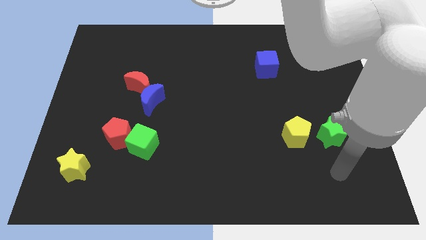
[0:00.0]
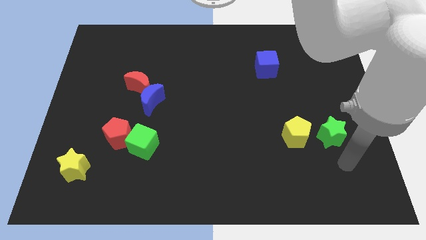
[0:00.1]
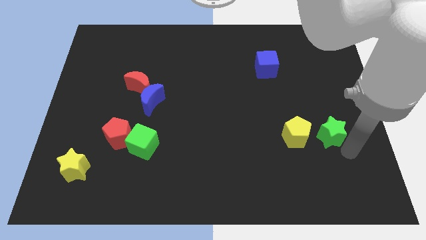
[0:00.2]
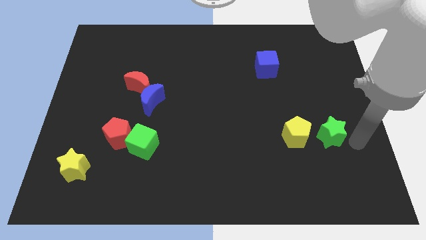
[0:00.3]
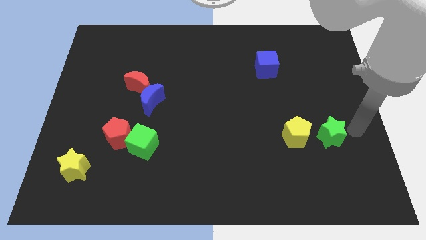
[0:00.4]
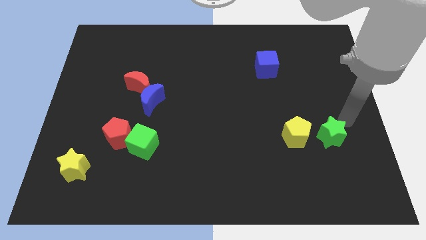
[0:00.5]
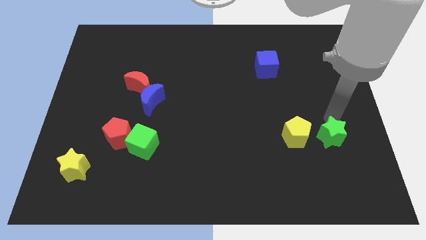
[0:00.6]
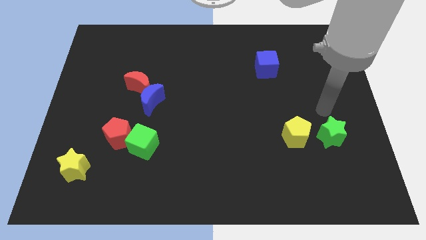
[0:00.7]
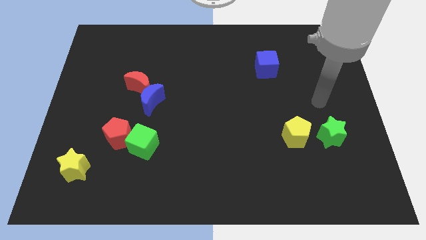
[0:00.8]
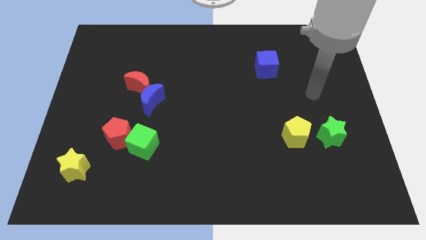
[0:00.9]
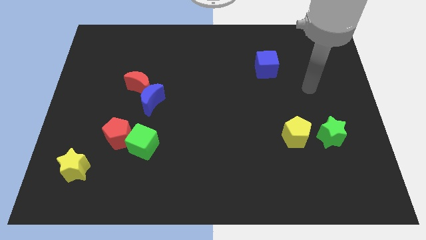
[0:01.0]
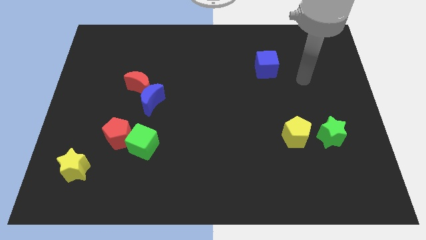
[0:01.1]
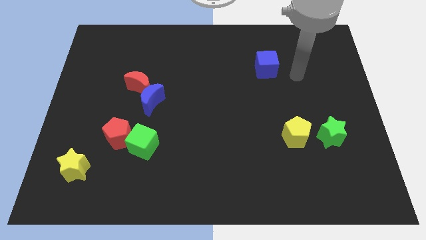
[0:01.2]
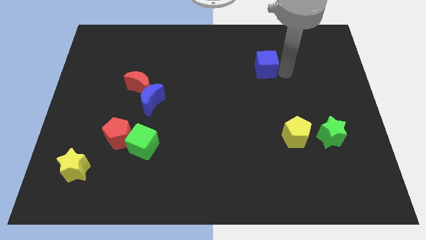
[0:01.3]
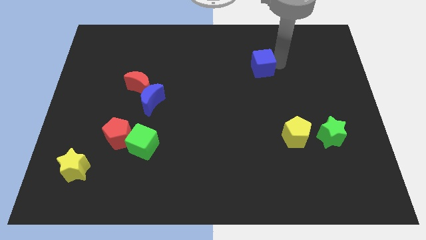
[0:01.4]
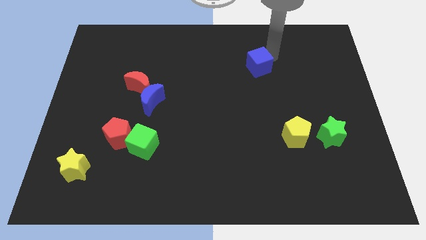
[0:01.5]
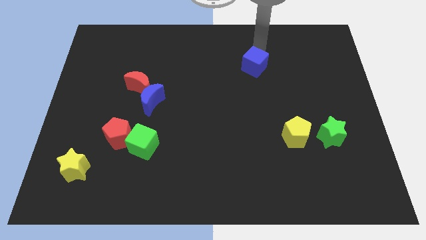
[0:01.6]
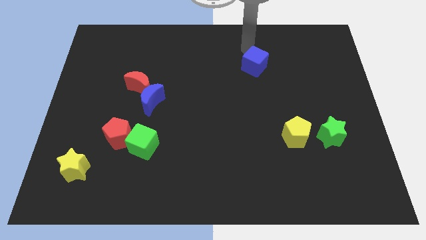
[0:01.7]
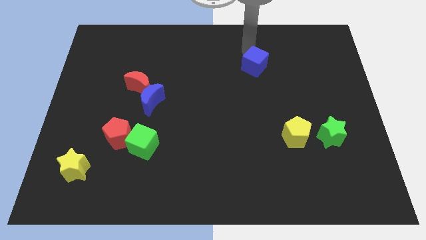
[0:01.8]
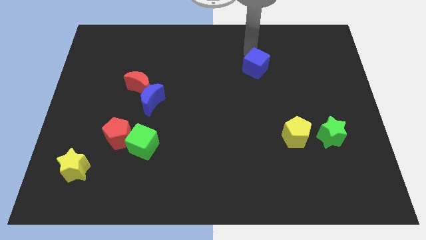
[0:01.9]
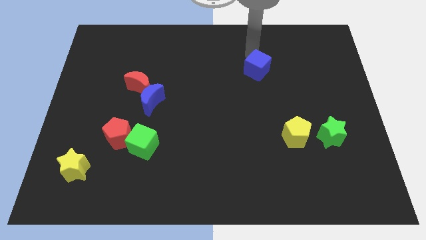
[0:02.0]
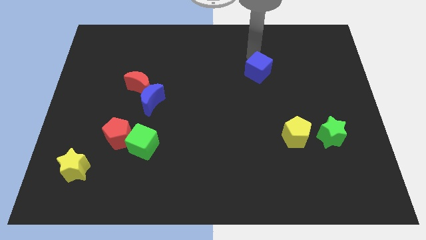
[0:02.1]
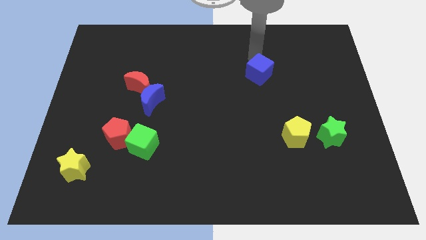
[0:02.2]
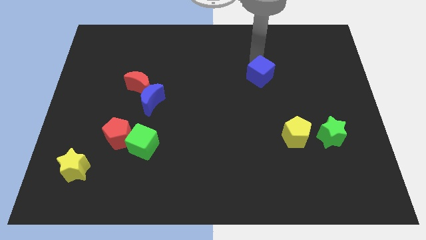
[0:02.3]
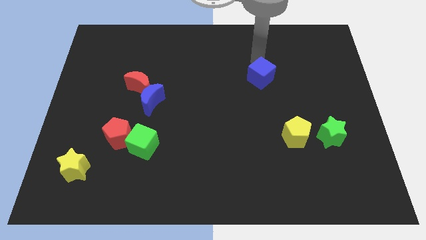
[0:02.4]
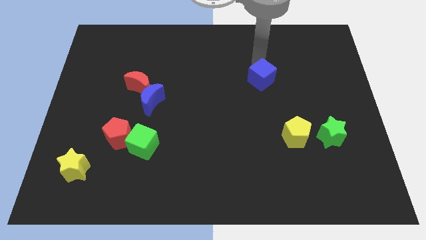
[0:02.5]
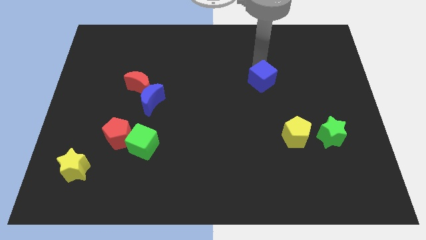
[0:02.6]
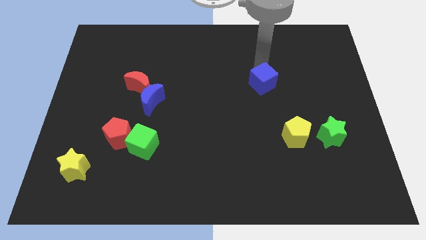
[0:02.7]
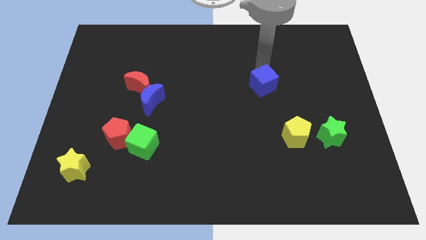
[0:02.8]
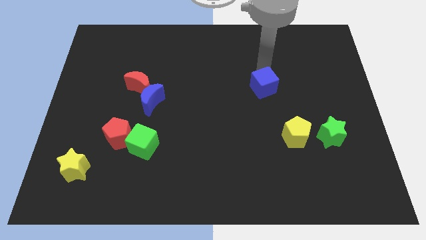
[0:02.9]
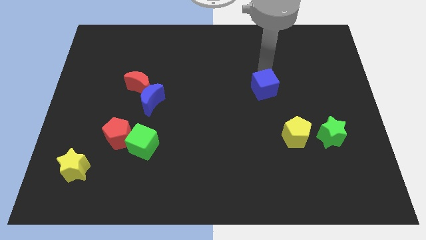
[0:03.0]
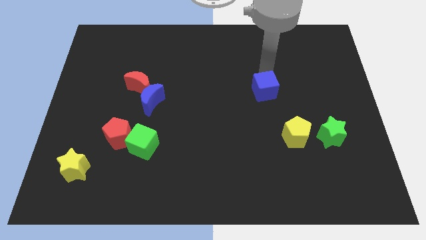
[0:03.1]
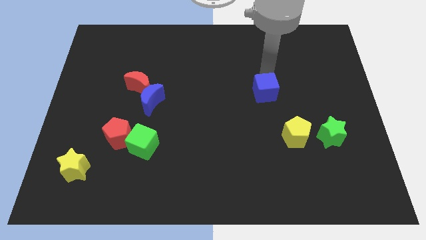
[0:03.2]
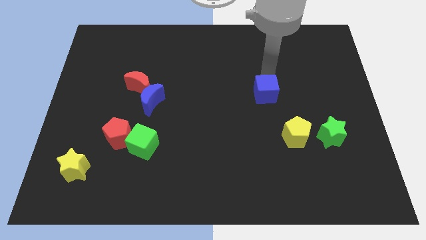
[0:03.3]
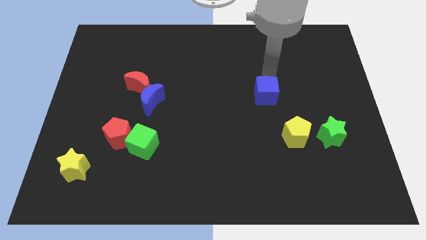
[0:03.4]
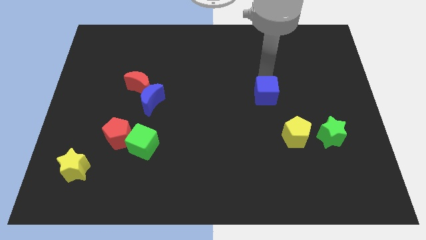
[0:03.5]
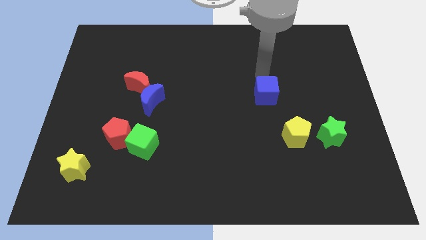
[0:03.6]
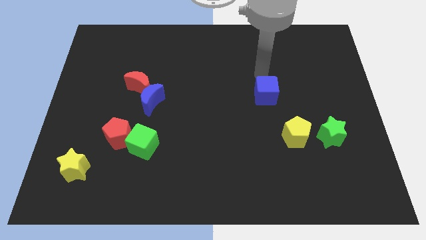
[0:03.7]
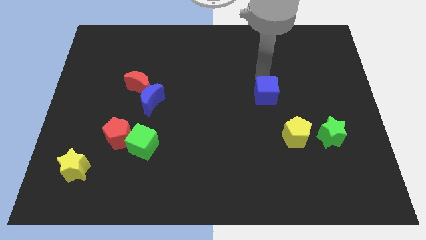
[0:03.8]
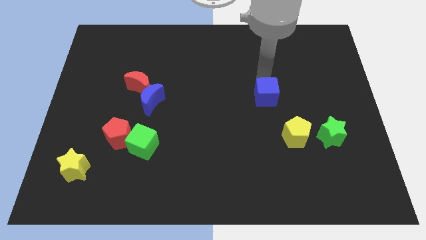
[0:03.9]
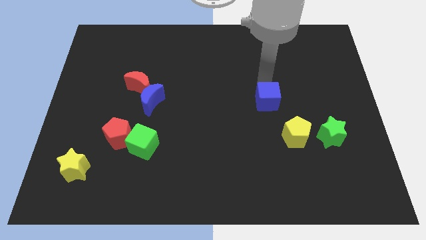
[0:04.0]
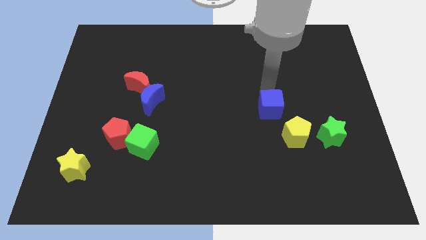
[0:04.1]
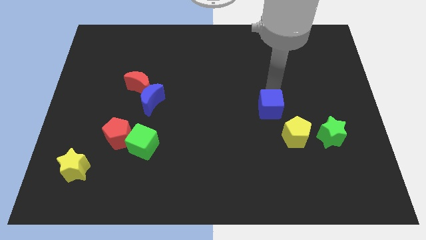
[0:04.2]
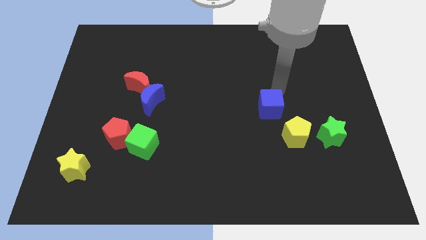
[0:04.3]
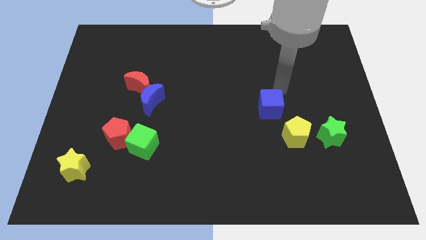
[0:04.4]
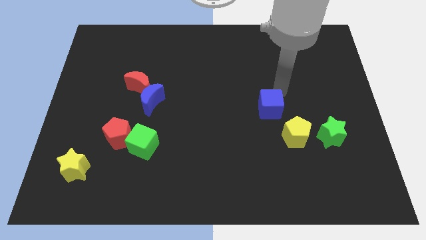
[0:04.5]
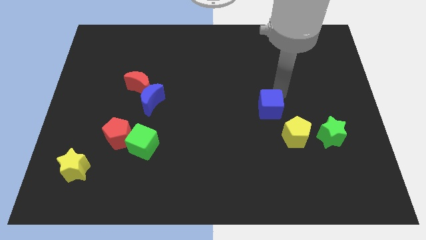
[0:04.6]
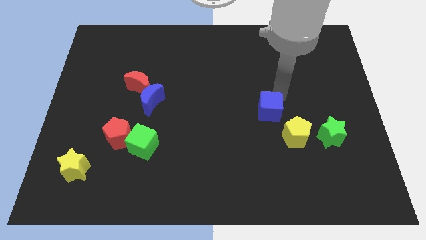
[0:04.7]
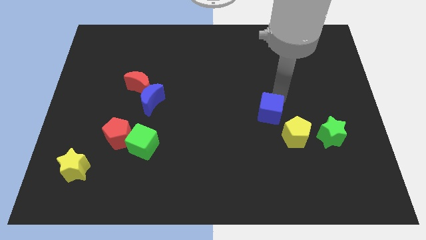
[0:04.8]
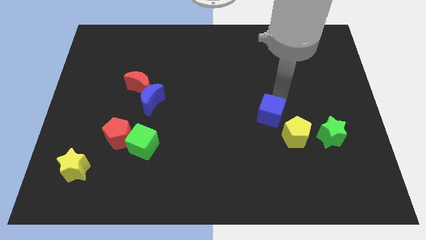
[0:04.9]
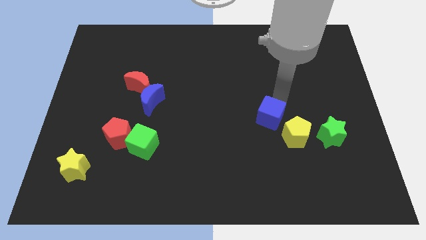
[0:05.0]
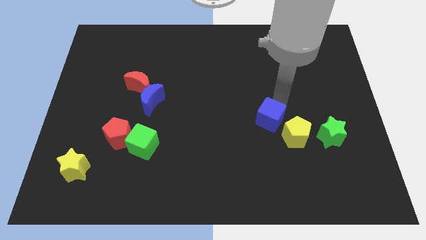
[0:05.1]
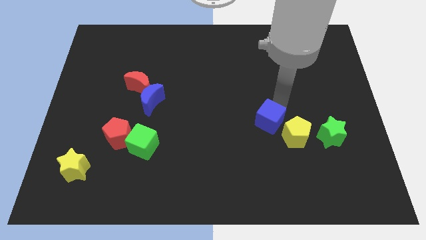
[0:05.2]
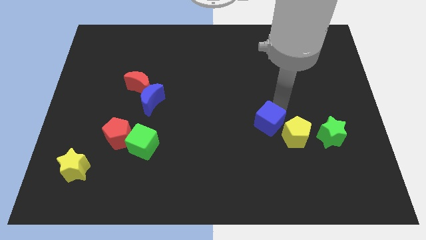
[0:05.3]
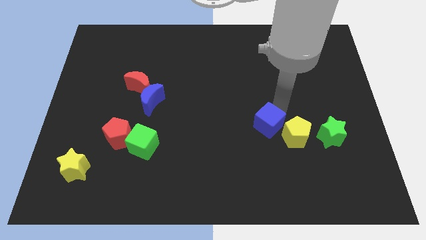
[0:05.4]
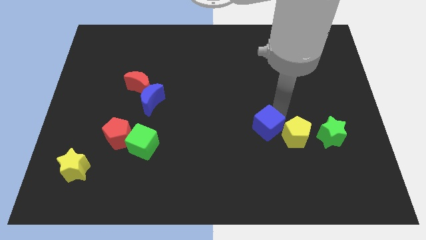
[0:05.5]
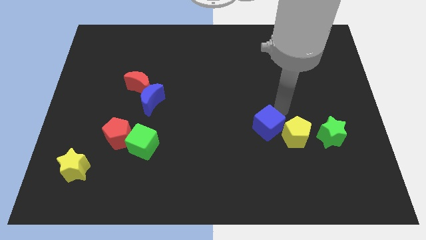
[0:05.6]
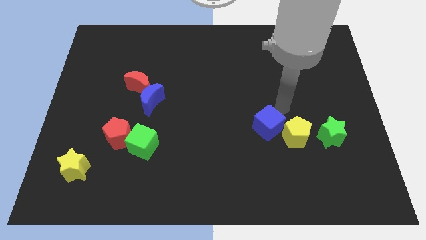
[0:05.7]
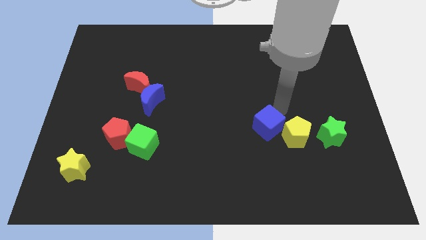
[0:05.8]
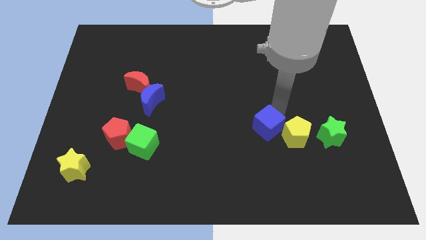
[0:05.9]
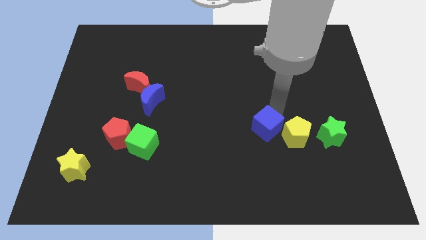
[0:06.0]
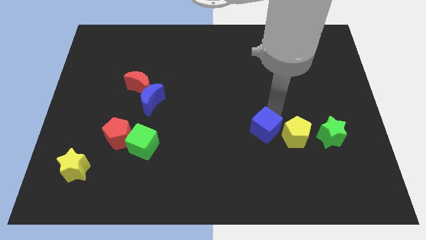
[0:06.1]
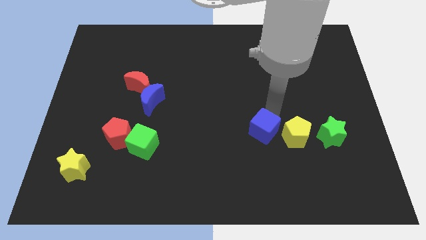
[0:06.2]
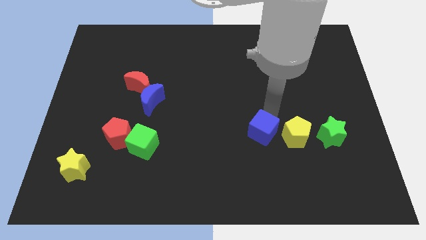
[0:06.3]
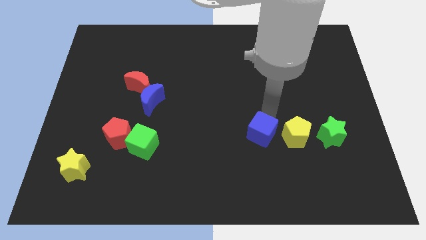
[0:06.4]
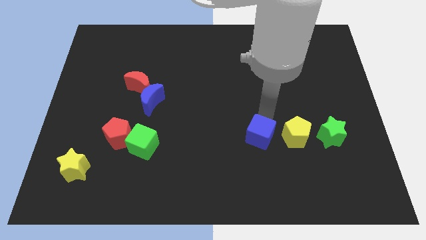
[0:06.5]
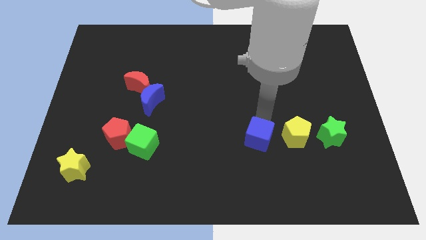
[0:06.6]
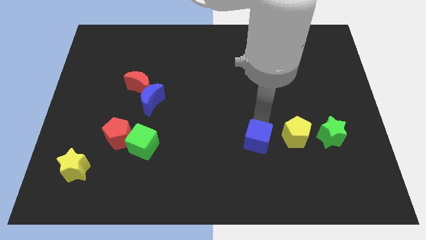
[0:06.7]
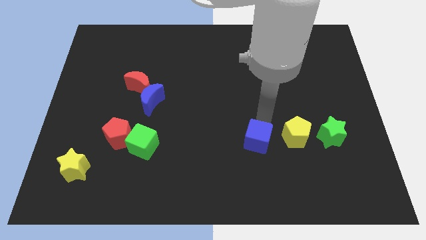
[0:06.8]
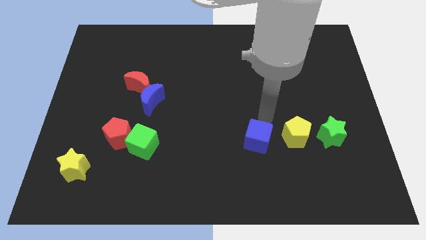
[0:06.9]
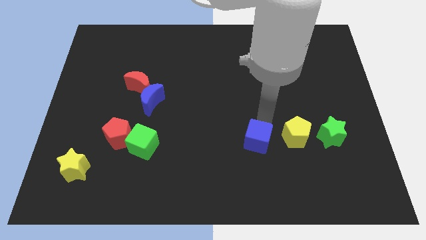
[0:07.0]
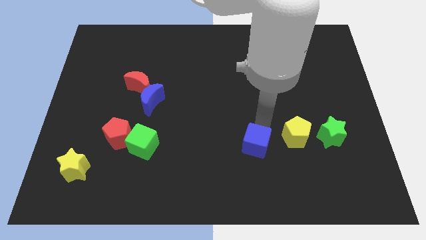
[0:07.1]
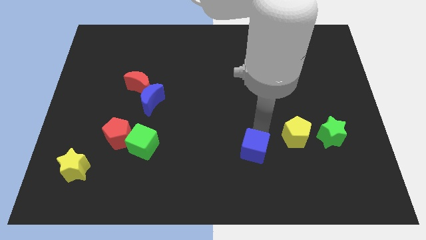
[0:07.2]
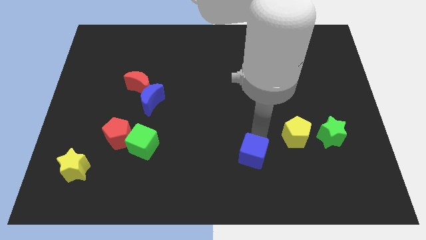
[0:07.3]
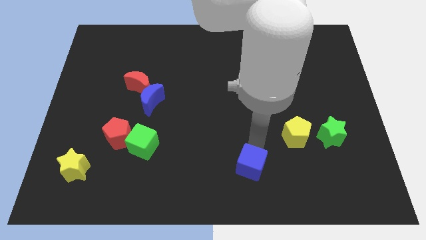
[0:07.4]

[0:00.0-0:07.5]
put the blue cube to the bottom side
